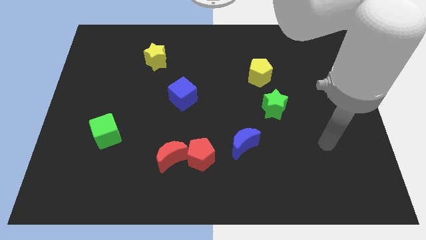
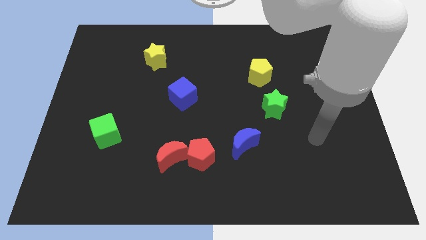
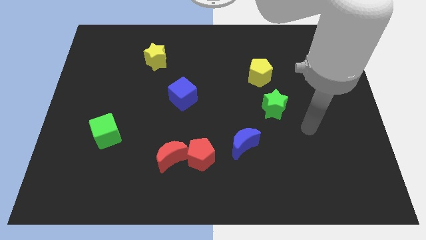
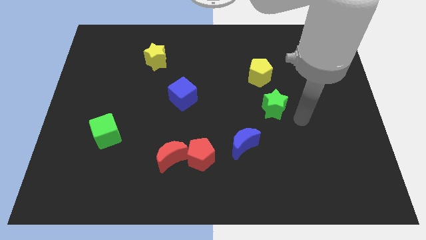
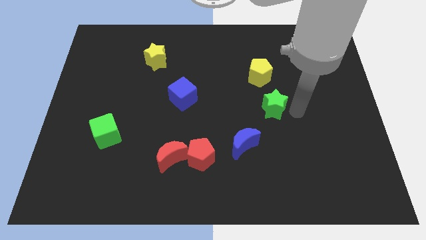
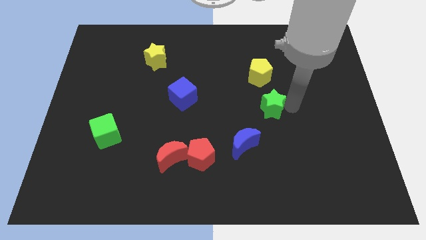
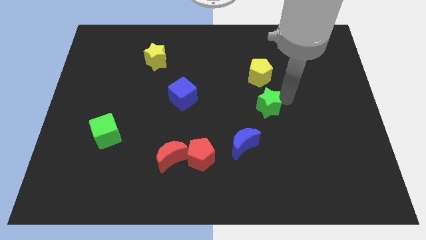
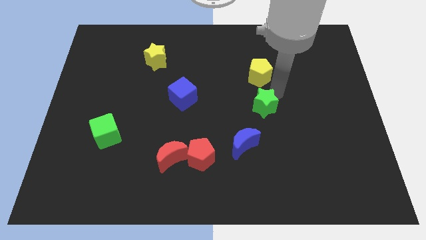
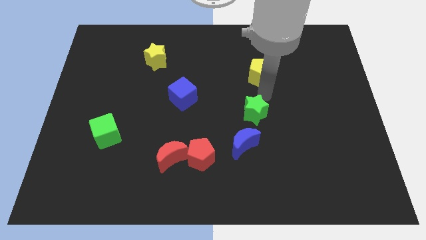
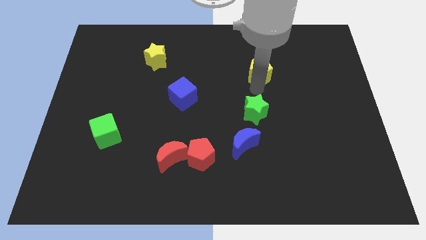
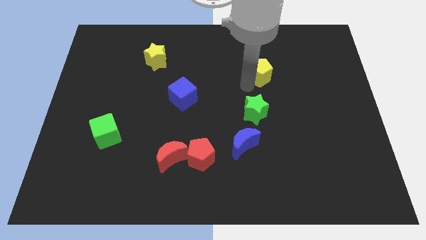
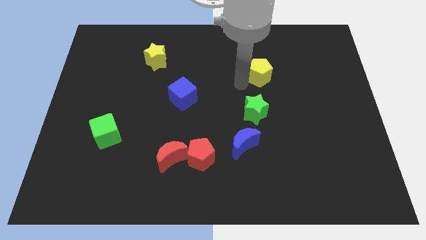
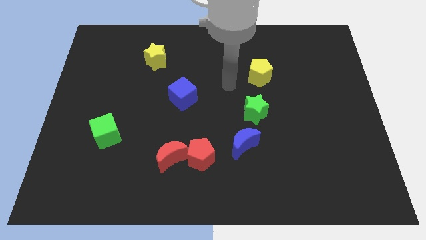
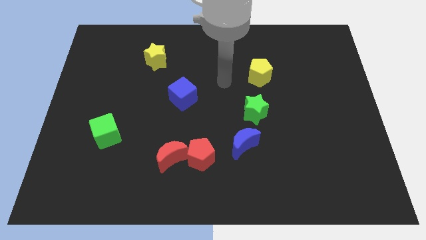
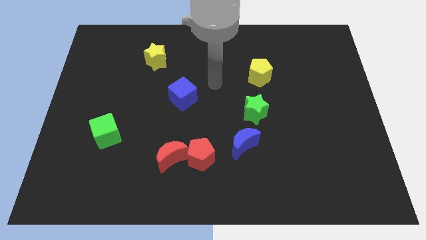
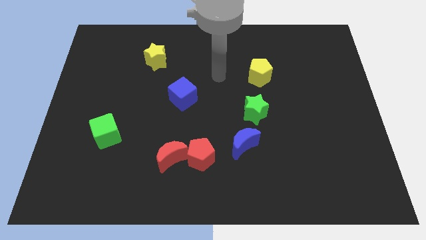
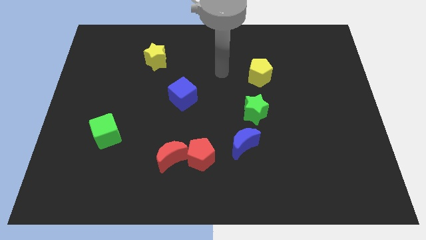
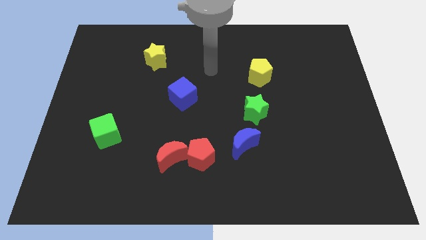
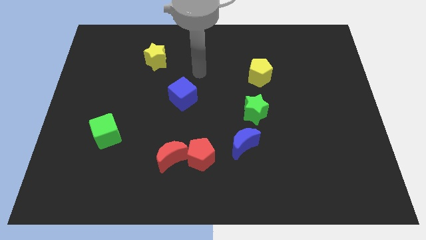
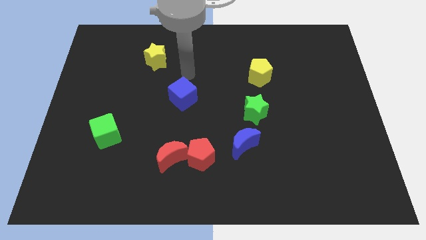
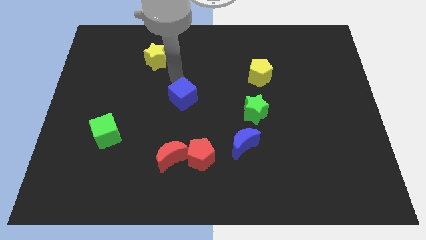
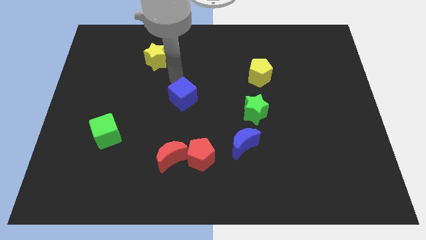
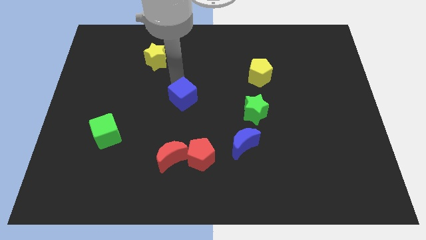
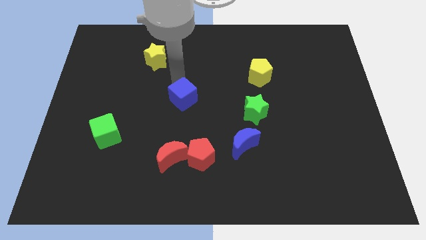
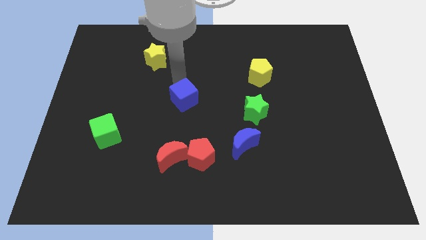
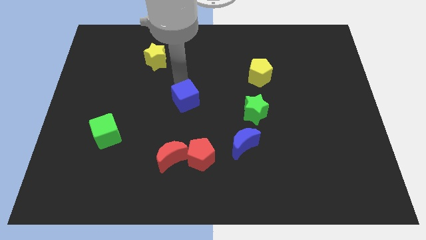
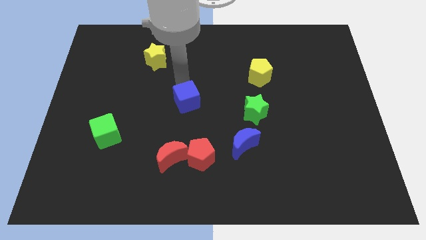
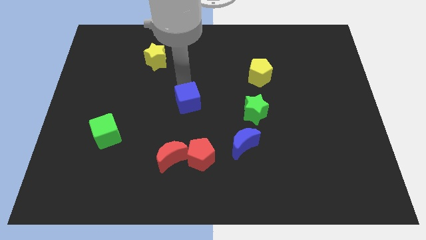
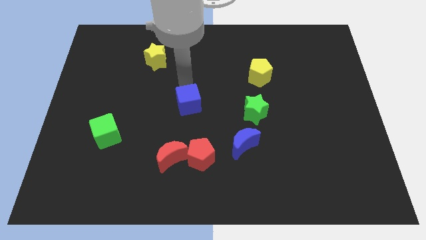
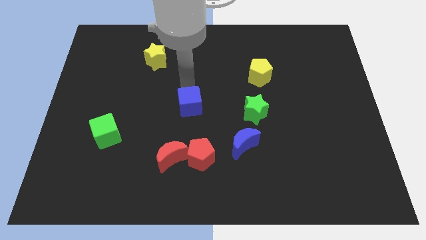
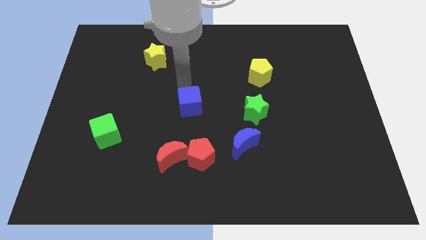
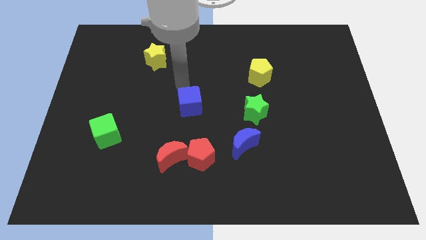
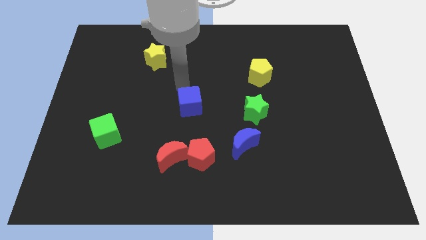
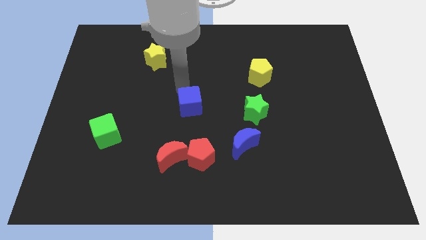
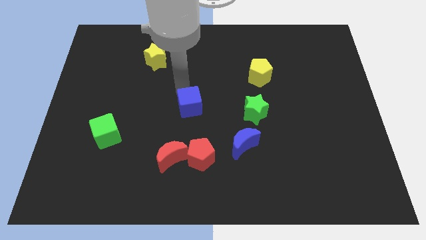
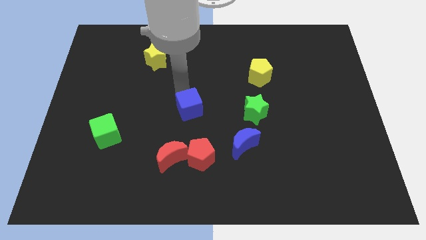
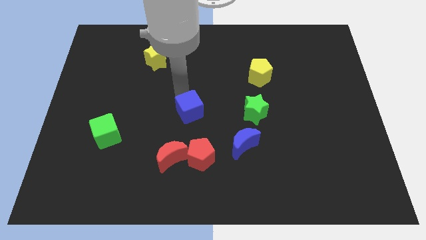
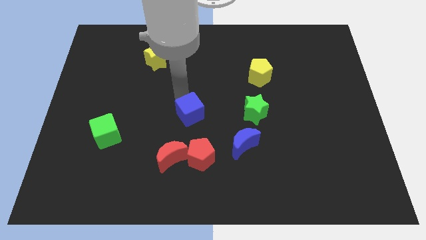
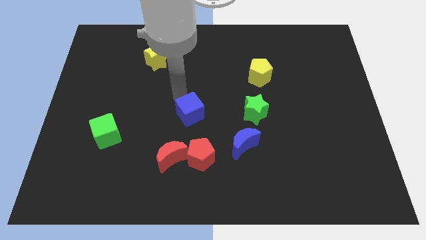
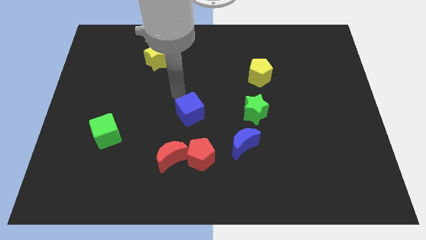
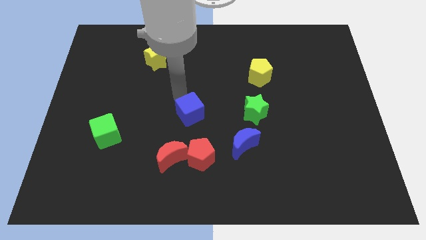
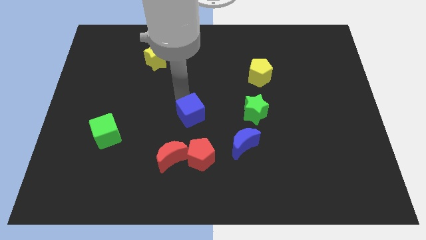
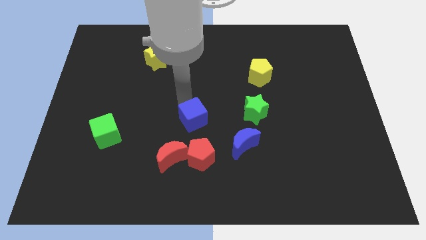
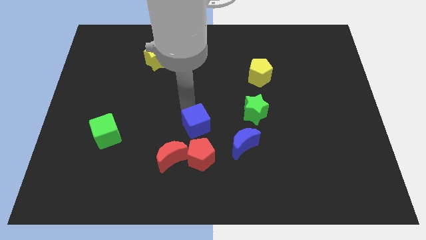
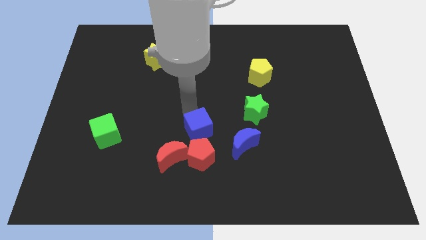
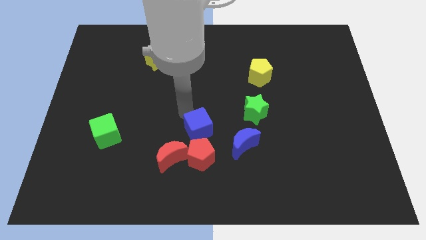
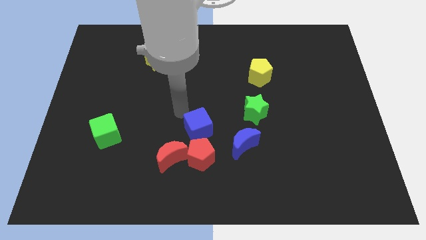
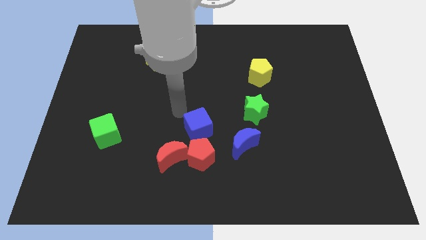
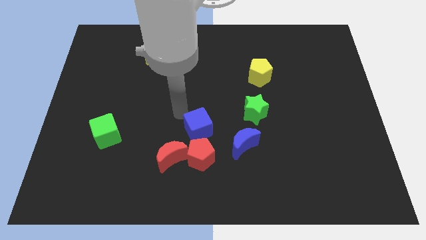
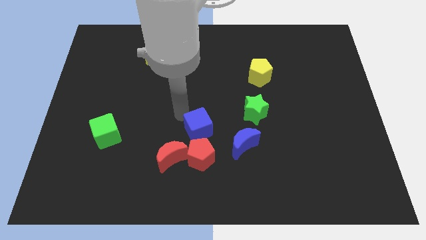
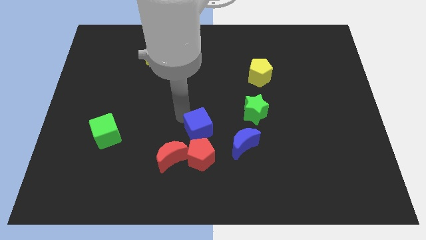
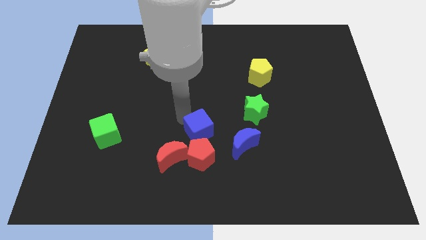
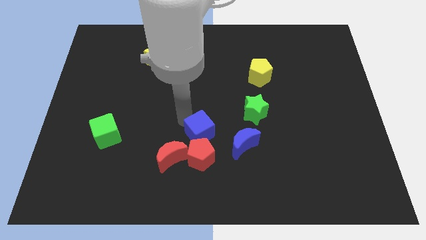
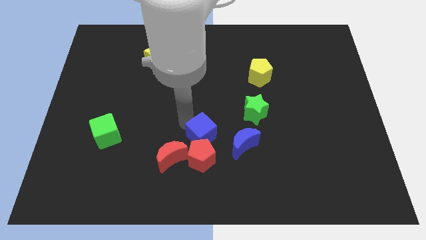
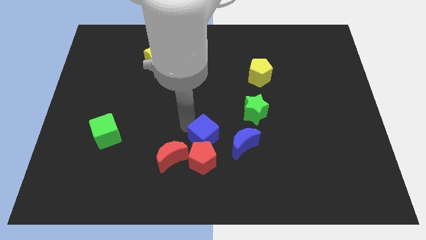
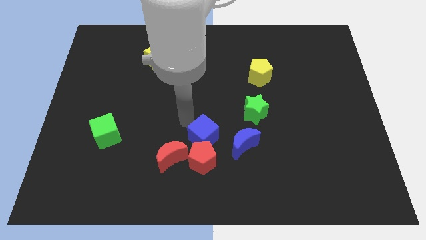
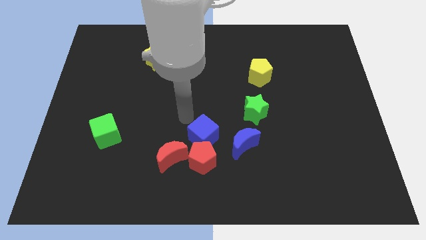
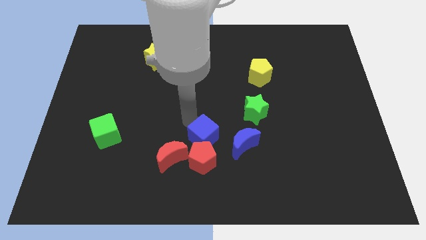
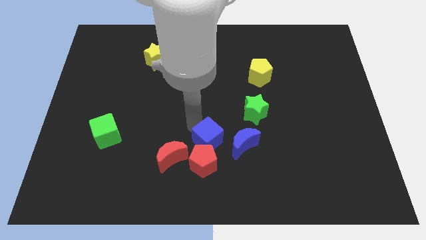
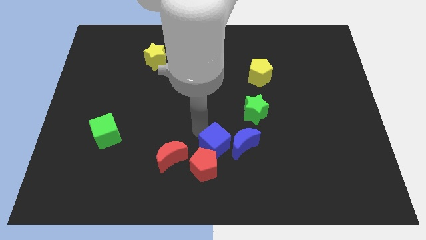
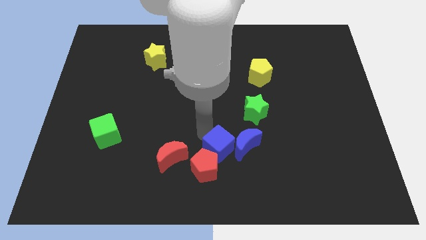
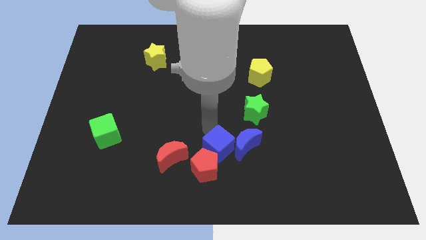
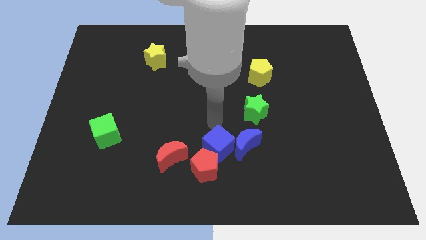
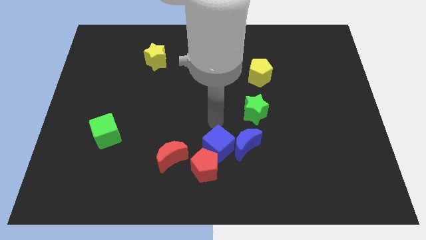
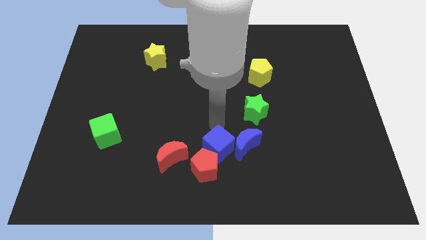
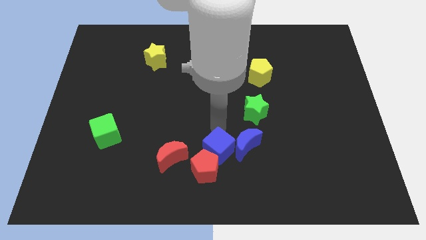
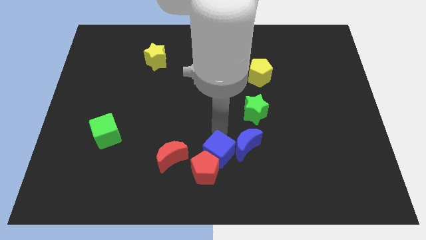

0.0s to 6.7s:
slide the blue cube to the bottom side
